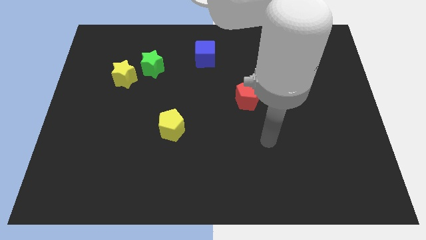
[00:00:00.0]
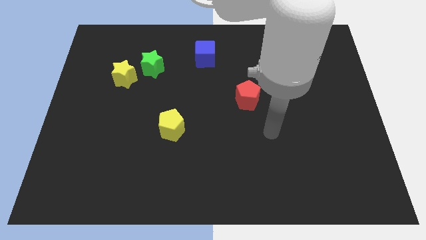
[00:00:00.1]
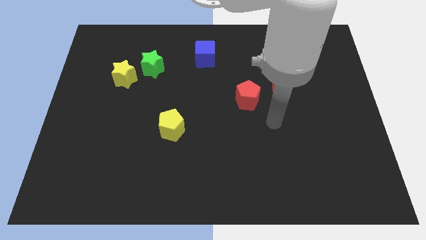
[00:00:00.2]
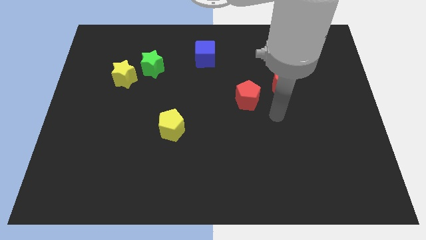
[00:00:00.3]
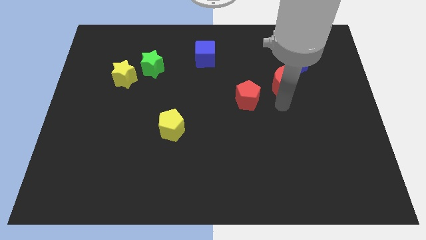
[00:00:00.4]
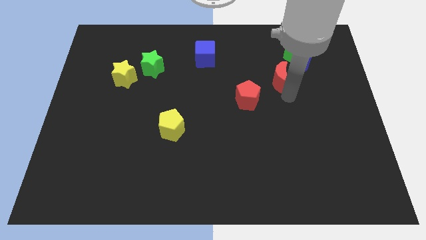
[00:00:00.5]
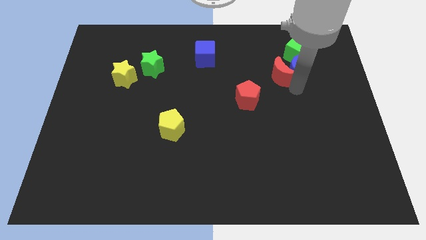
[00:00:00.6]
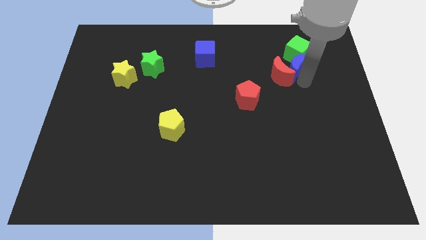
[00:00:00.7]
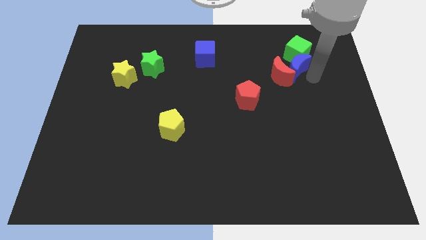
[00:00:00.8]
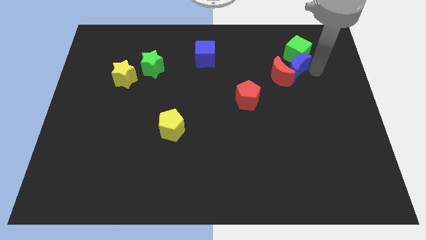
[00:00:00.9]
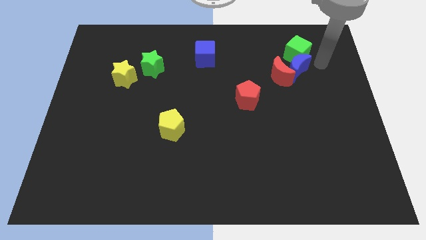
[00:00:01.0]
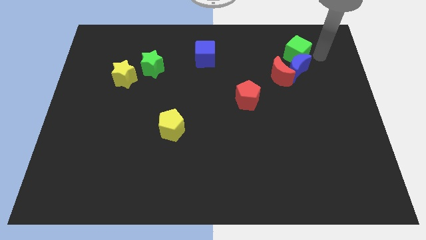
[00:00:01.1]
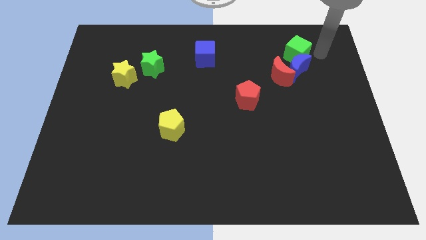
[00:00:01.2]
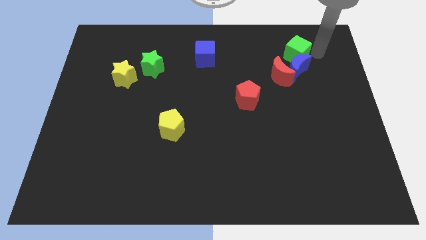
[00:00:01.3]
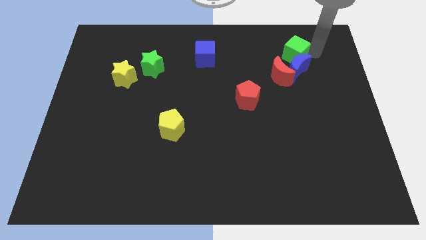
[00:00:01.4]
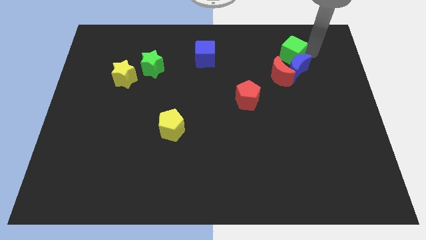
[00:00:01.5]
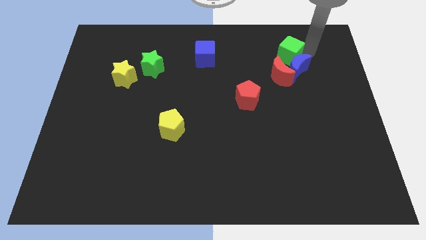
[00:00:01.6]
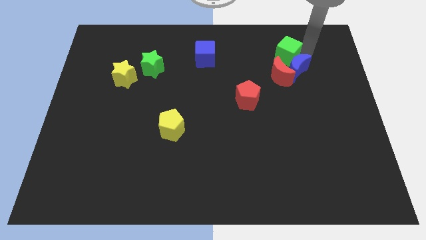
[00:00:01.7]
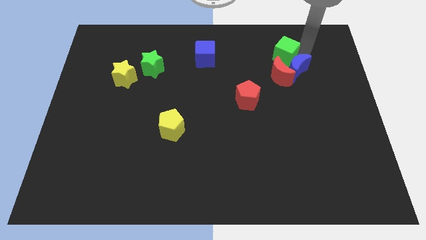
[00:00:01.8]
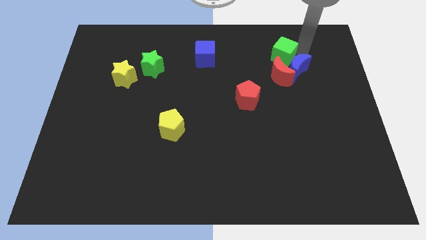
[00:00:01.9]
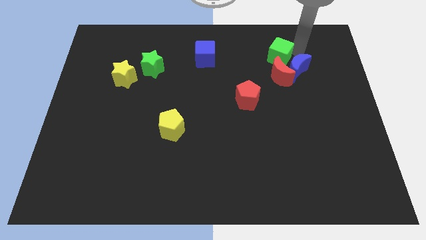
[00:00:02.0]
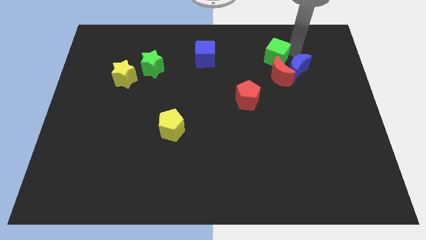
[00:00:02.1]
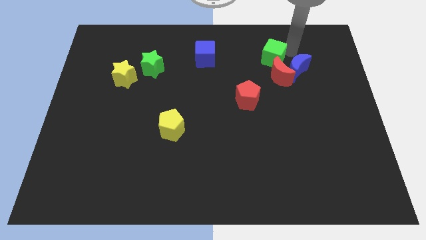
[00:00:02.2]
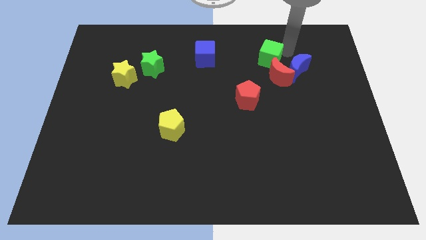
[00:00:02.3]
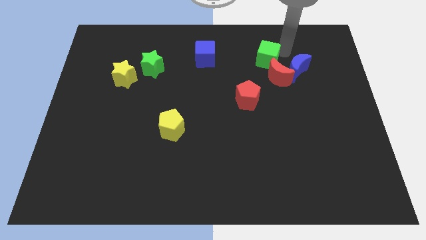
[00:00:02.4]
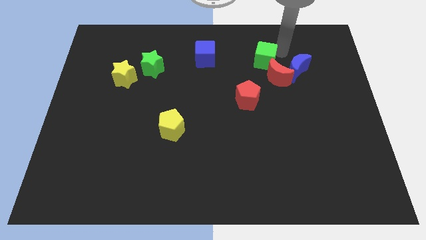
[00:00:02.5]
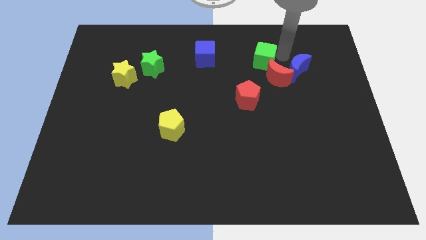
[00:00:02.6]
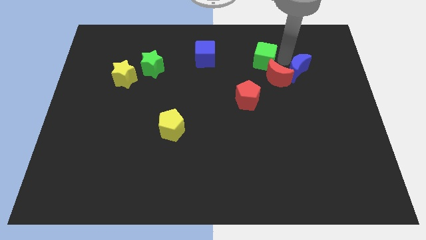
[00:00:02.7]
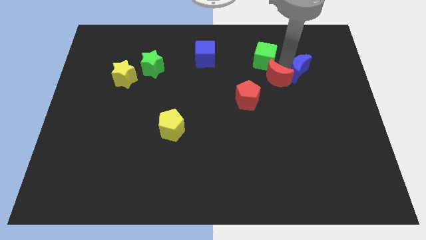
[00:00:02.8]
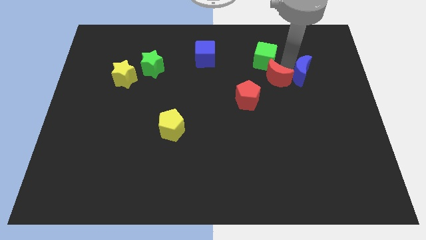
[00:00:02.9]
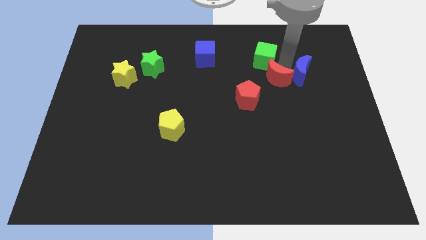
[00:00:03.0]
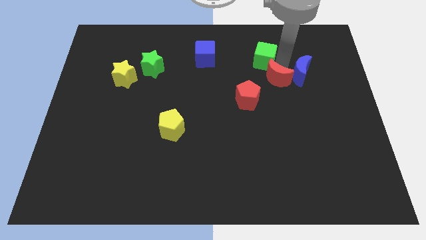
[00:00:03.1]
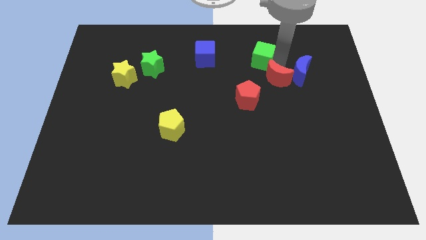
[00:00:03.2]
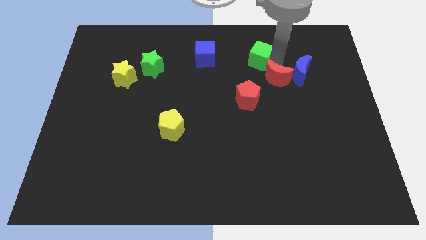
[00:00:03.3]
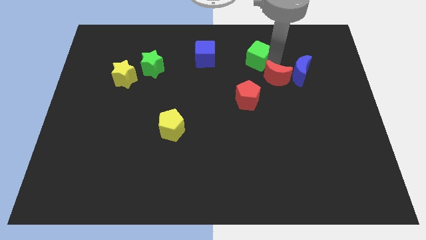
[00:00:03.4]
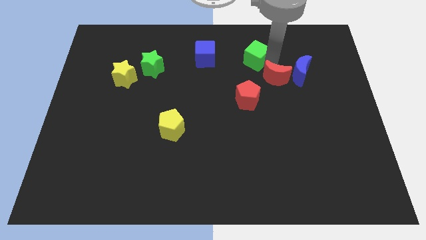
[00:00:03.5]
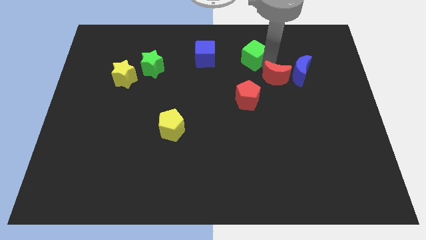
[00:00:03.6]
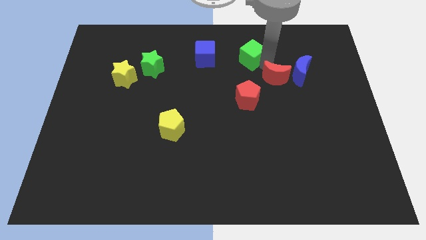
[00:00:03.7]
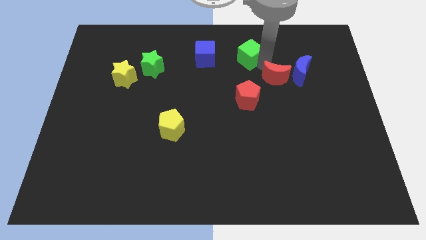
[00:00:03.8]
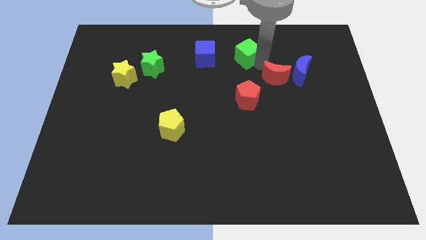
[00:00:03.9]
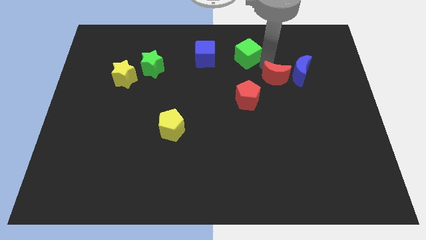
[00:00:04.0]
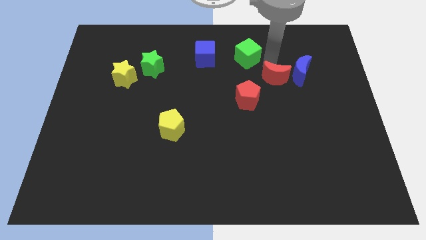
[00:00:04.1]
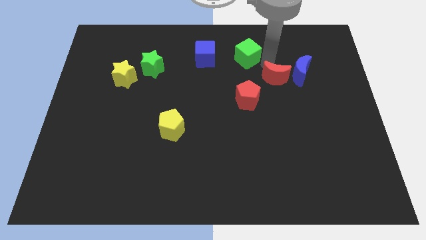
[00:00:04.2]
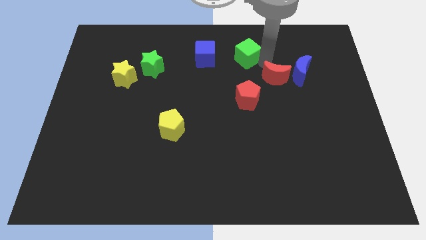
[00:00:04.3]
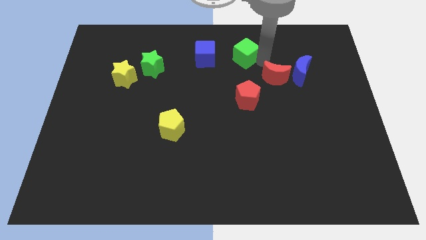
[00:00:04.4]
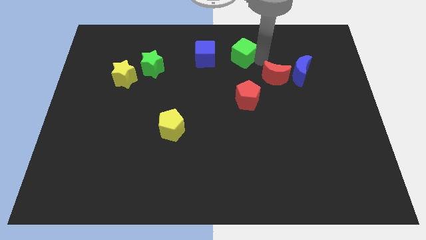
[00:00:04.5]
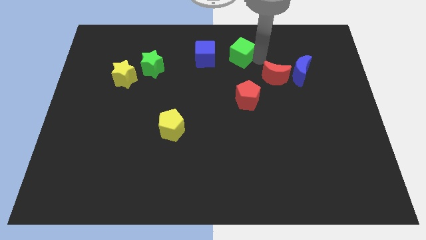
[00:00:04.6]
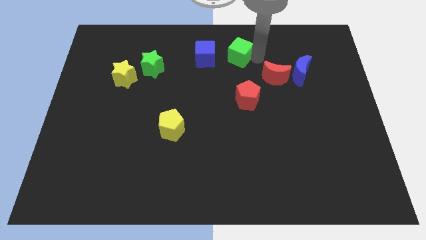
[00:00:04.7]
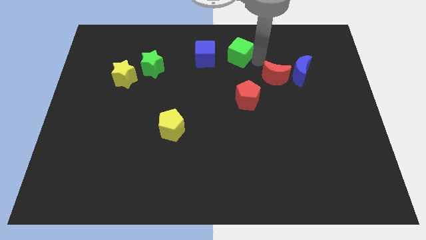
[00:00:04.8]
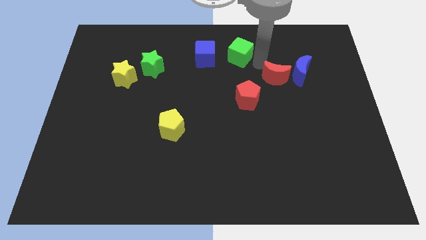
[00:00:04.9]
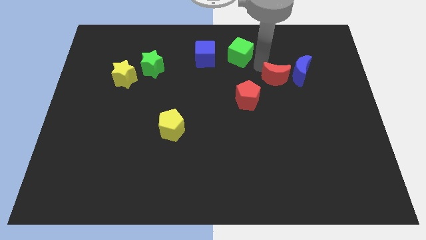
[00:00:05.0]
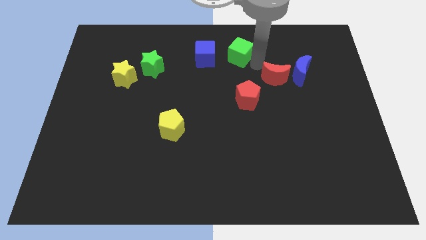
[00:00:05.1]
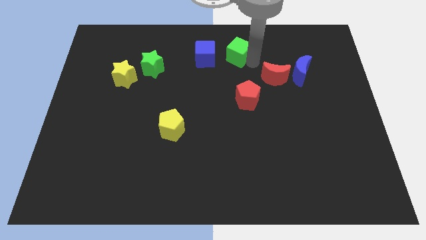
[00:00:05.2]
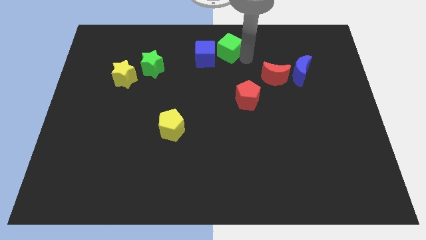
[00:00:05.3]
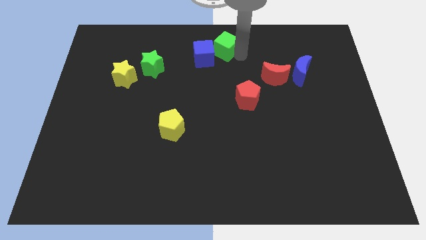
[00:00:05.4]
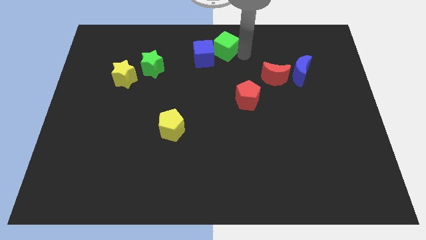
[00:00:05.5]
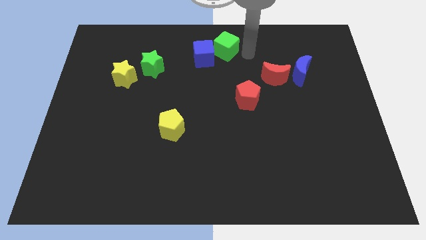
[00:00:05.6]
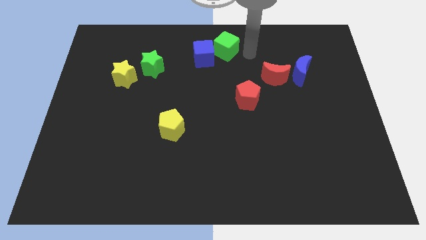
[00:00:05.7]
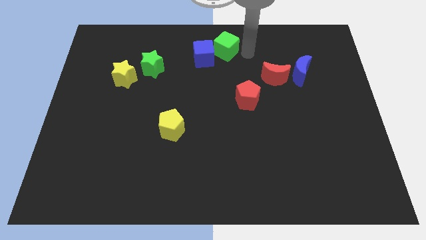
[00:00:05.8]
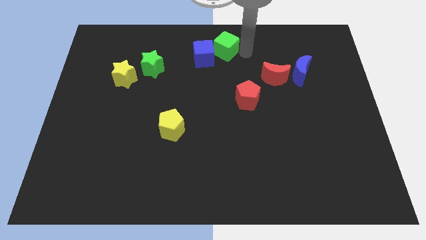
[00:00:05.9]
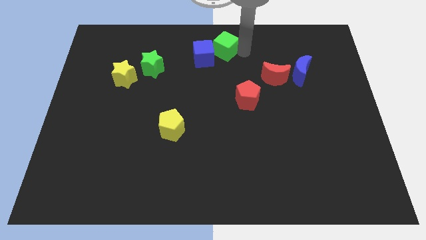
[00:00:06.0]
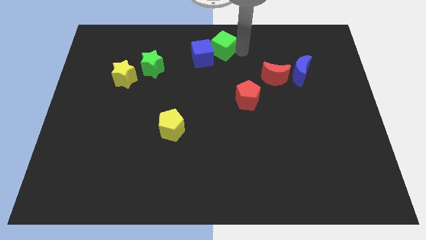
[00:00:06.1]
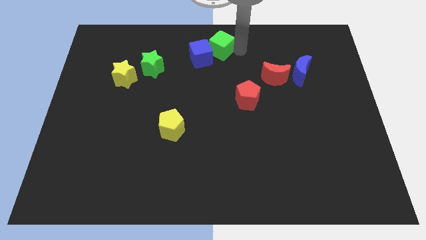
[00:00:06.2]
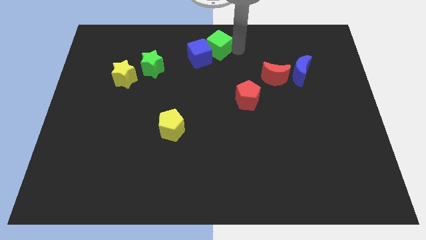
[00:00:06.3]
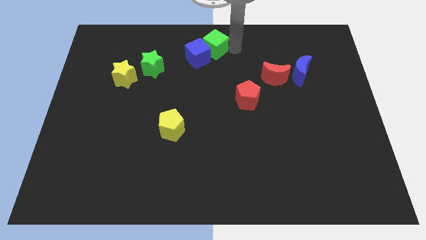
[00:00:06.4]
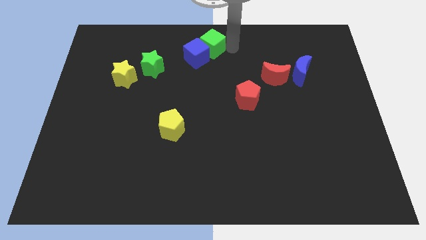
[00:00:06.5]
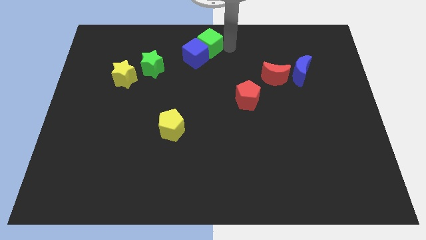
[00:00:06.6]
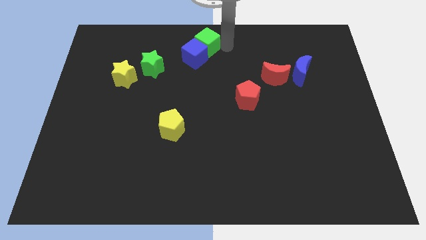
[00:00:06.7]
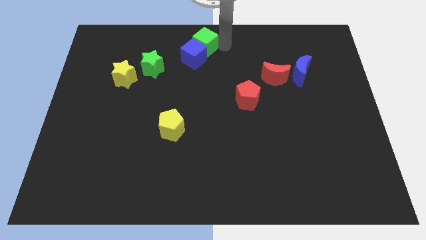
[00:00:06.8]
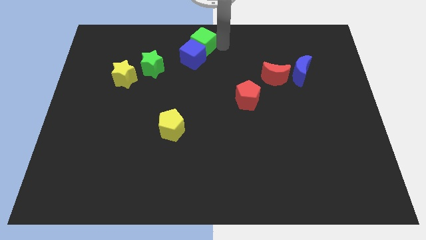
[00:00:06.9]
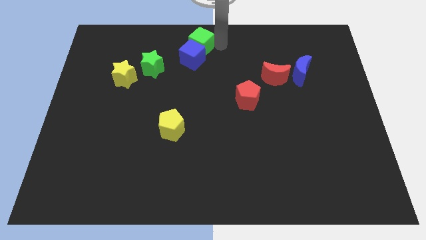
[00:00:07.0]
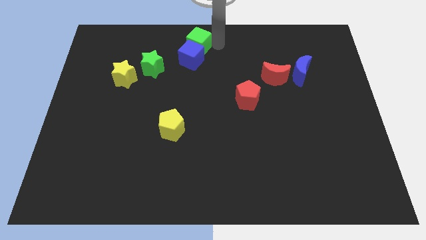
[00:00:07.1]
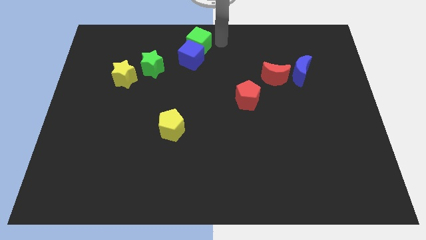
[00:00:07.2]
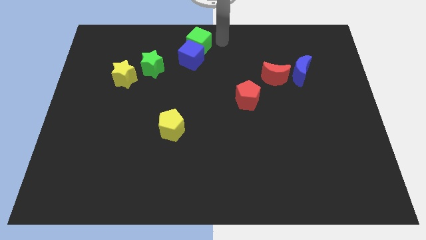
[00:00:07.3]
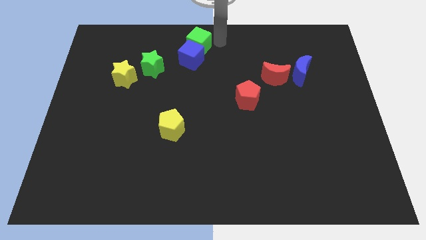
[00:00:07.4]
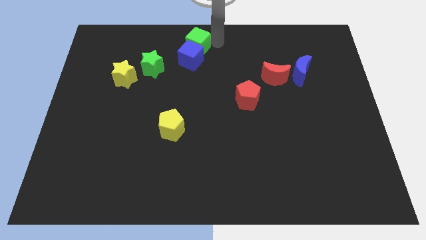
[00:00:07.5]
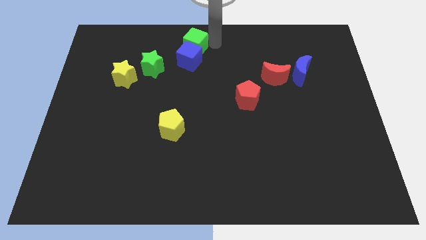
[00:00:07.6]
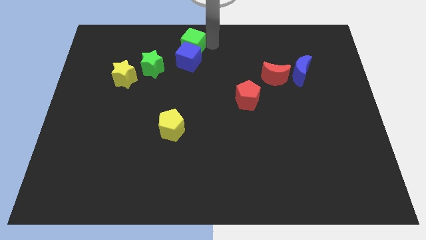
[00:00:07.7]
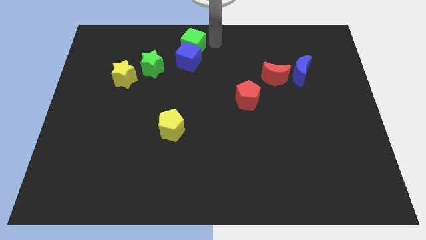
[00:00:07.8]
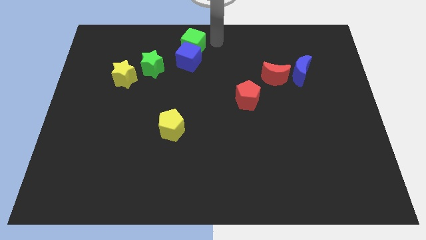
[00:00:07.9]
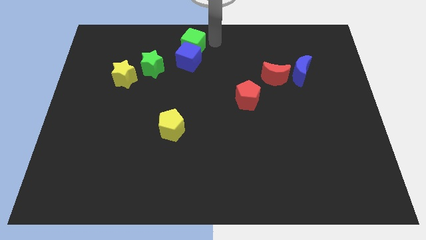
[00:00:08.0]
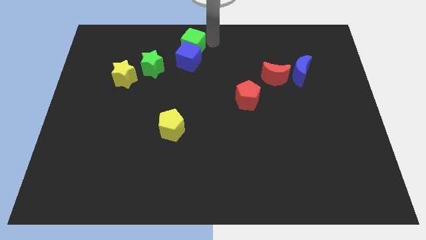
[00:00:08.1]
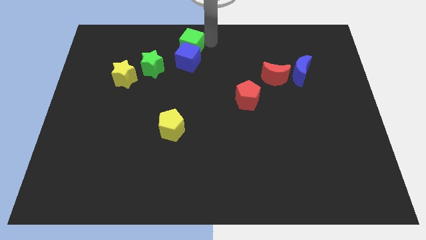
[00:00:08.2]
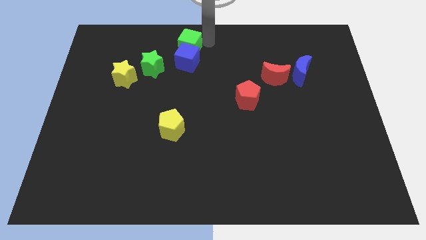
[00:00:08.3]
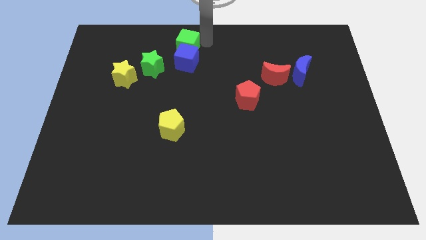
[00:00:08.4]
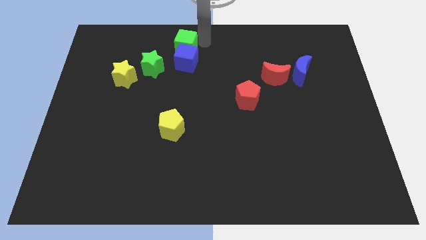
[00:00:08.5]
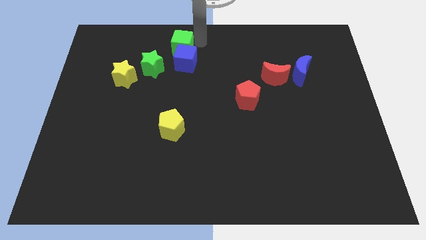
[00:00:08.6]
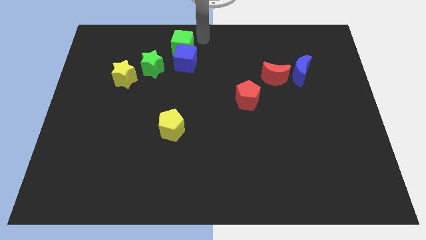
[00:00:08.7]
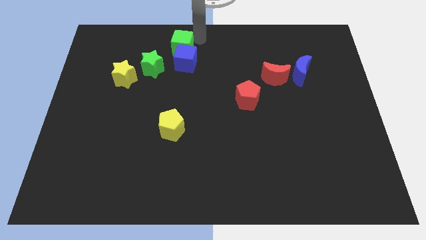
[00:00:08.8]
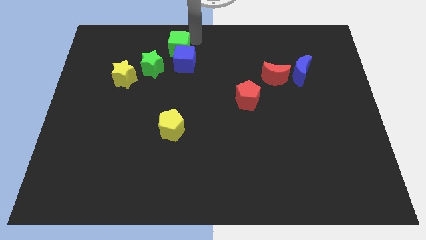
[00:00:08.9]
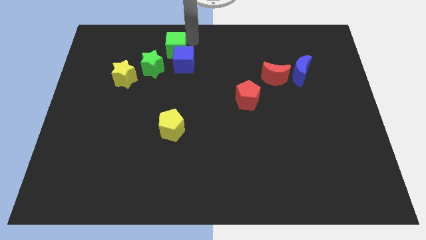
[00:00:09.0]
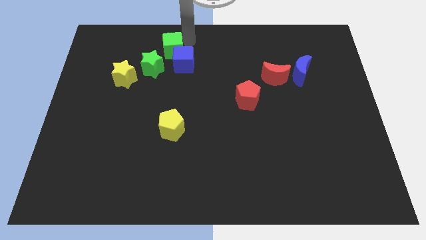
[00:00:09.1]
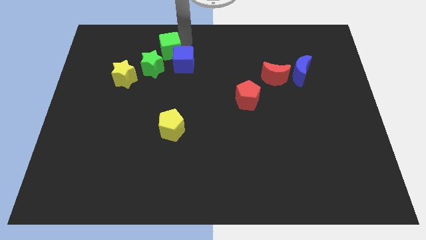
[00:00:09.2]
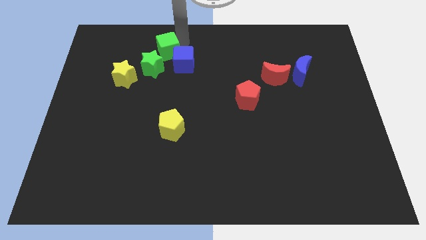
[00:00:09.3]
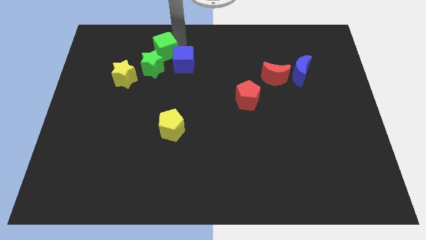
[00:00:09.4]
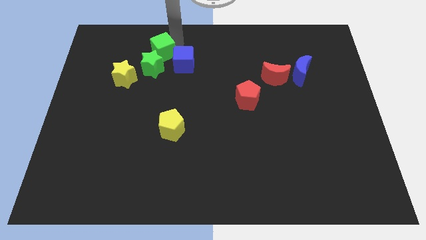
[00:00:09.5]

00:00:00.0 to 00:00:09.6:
push the green cube to the top right of the yellow star
